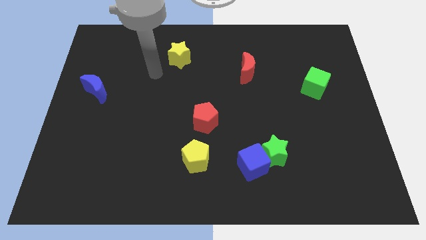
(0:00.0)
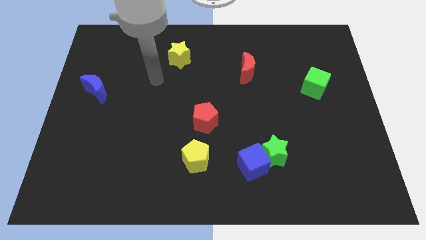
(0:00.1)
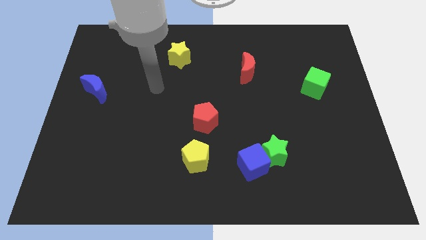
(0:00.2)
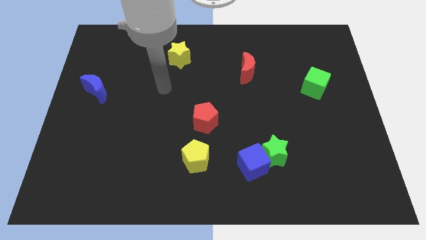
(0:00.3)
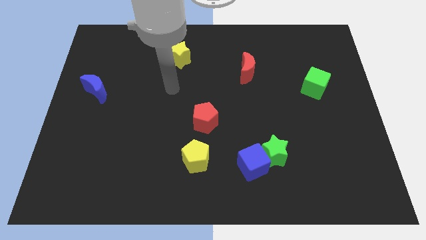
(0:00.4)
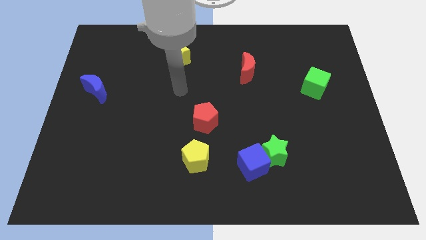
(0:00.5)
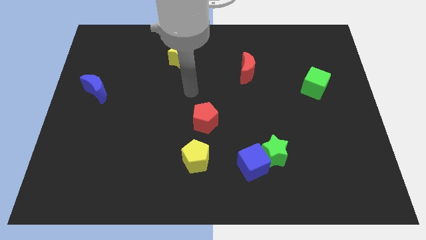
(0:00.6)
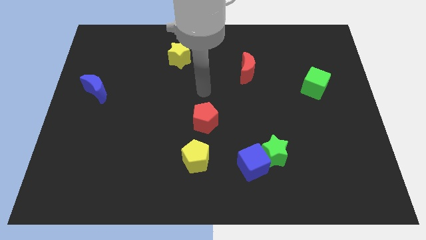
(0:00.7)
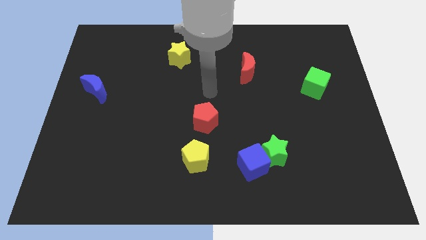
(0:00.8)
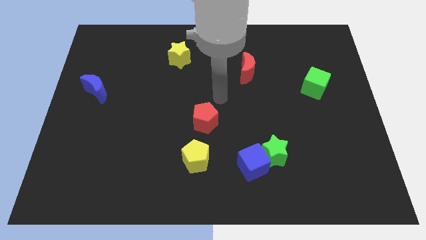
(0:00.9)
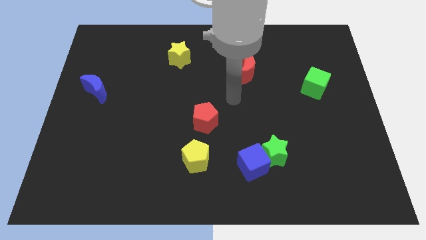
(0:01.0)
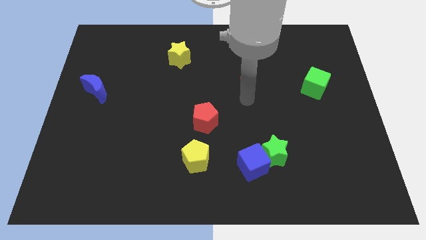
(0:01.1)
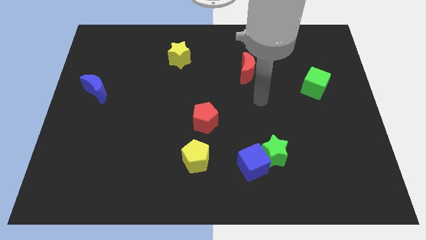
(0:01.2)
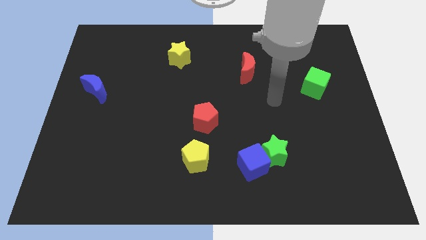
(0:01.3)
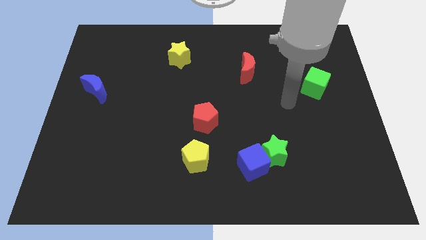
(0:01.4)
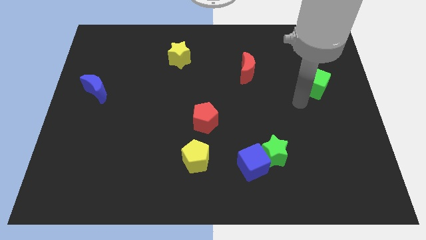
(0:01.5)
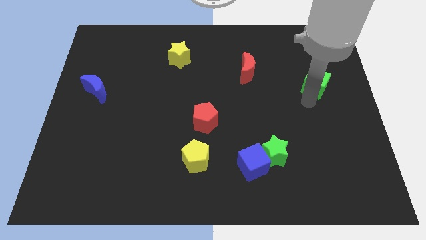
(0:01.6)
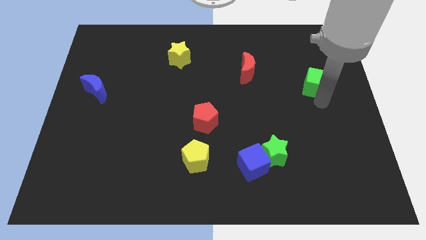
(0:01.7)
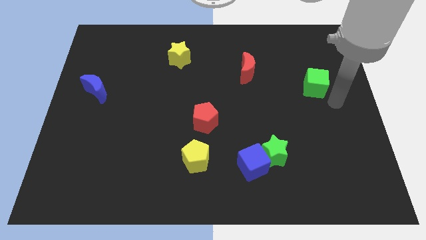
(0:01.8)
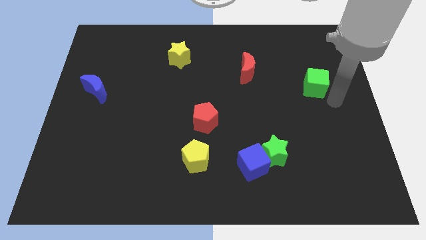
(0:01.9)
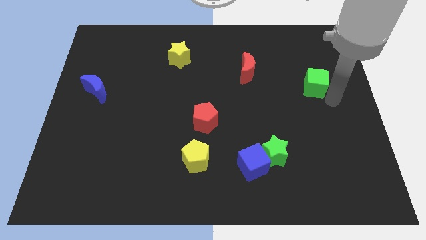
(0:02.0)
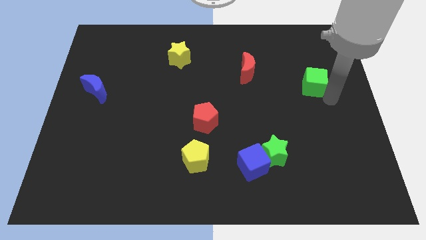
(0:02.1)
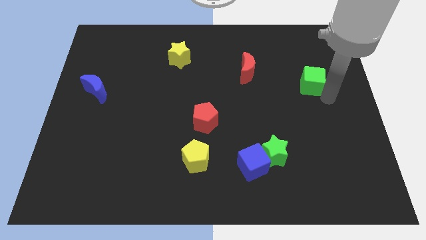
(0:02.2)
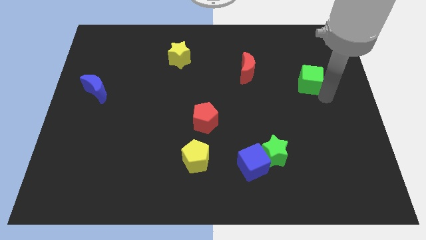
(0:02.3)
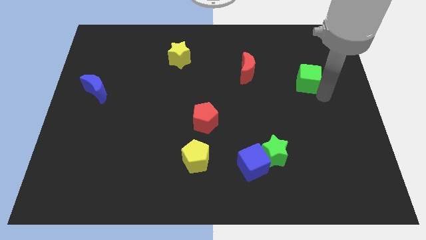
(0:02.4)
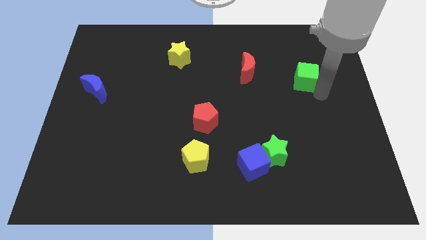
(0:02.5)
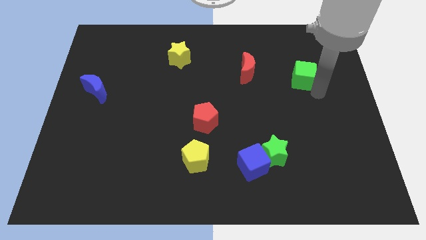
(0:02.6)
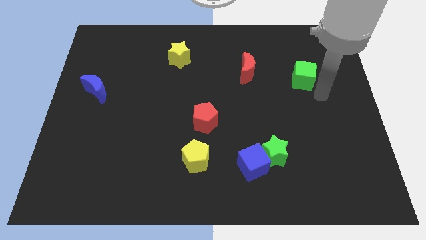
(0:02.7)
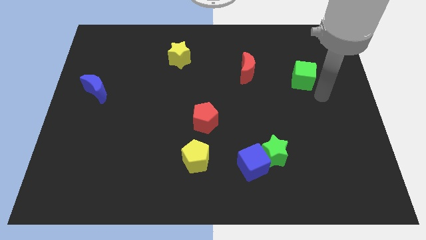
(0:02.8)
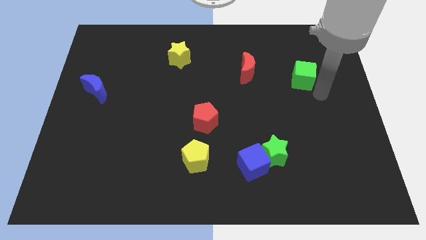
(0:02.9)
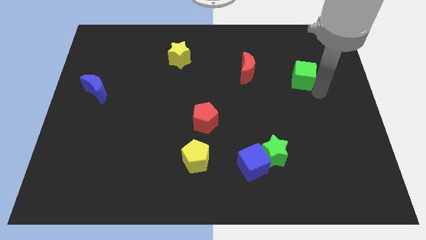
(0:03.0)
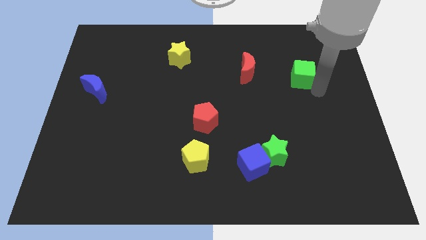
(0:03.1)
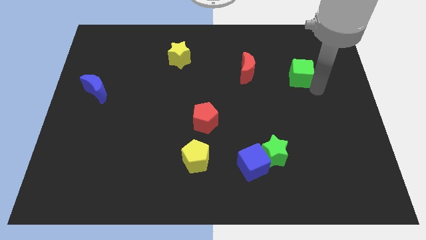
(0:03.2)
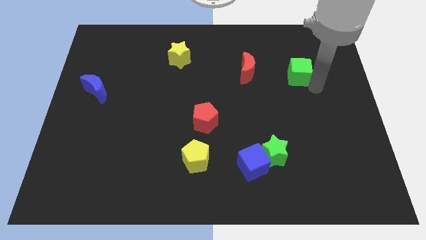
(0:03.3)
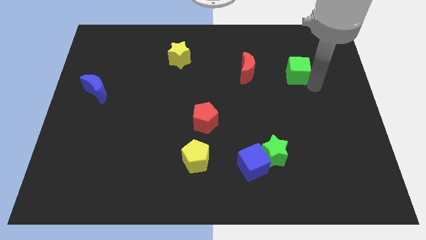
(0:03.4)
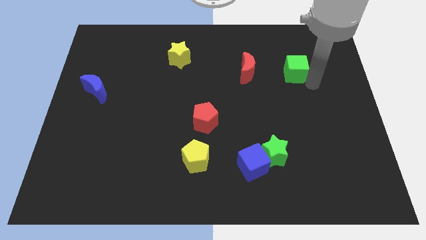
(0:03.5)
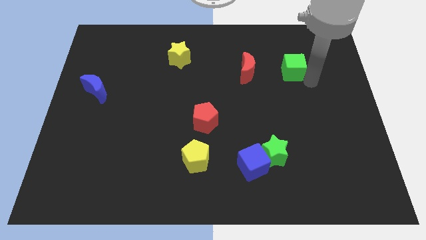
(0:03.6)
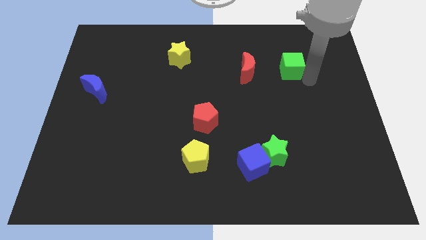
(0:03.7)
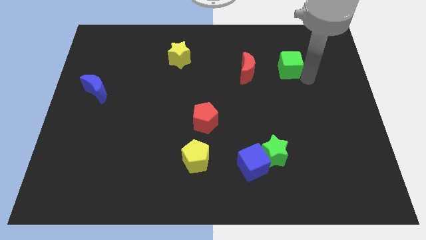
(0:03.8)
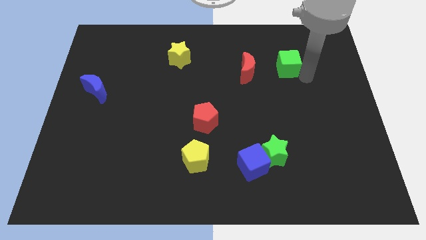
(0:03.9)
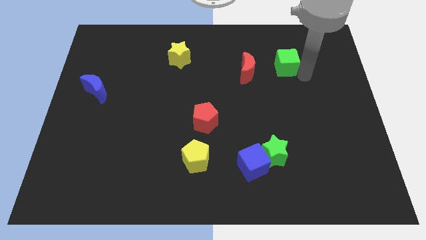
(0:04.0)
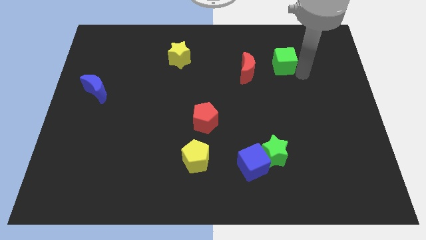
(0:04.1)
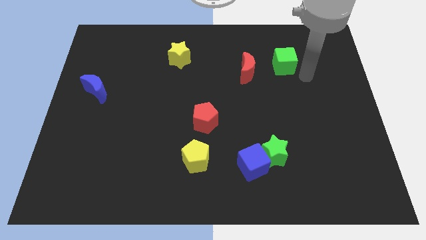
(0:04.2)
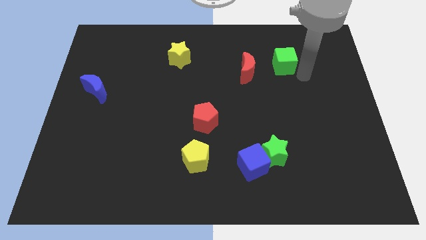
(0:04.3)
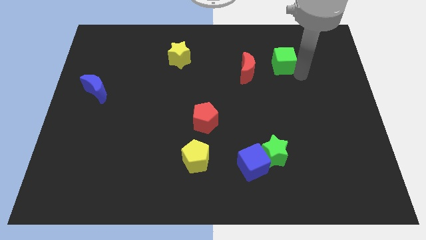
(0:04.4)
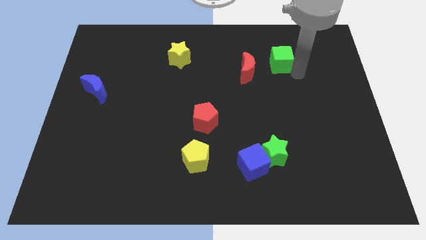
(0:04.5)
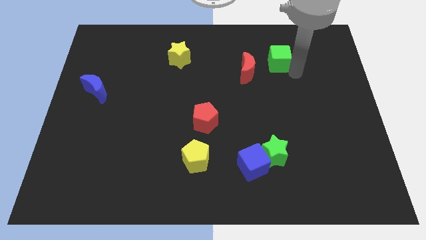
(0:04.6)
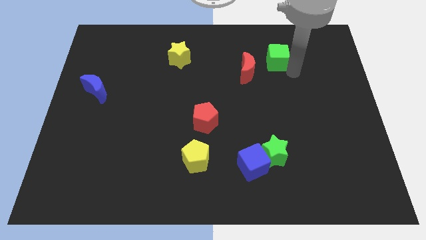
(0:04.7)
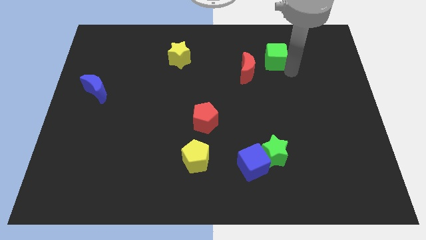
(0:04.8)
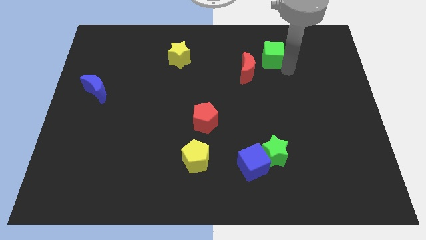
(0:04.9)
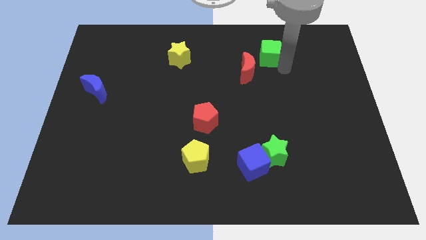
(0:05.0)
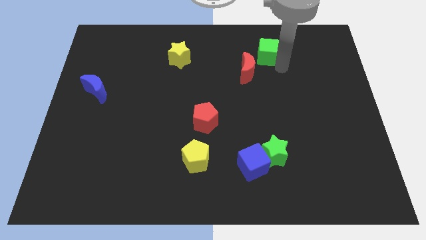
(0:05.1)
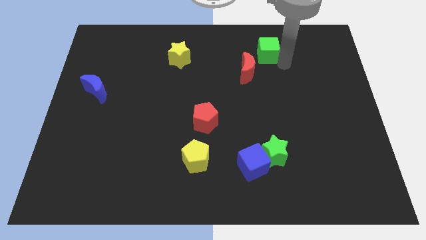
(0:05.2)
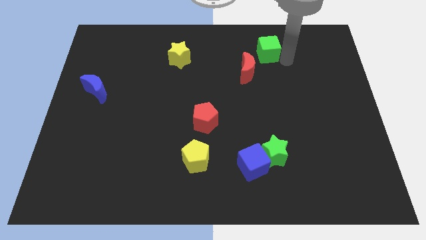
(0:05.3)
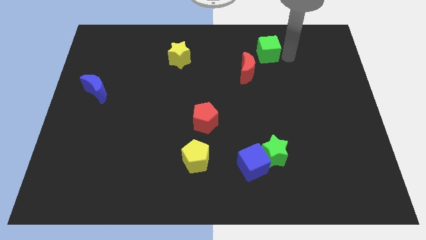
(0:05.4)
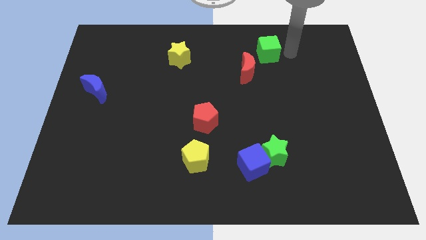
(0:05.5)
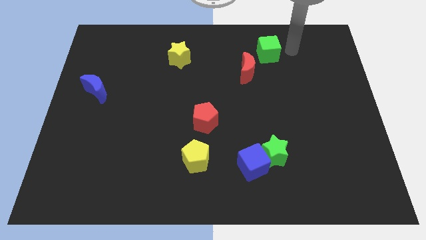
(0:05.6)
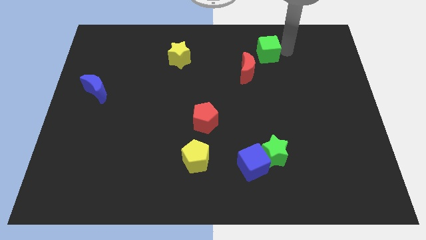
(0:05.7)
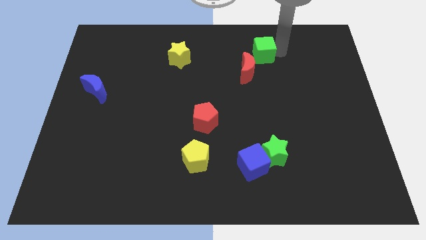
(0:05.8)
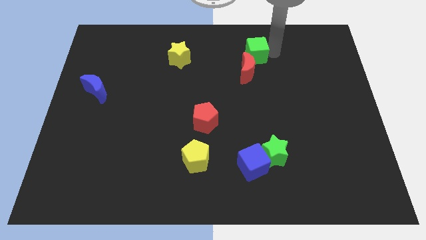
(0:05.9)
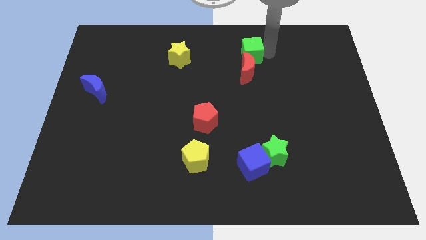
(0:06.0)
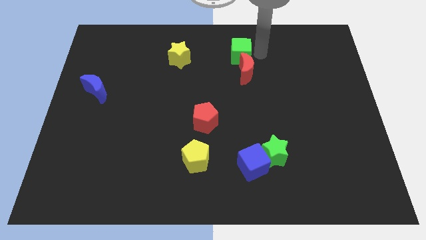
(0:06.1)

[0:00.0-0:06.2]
move the green cube right of the yellow star

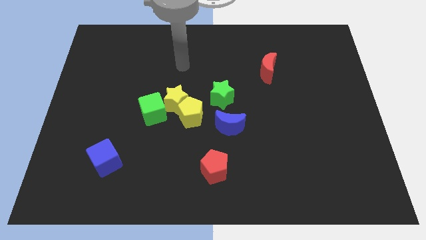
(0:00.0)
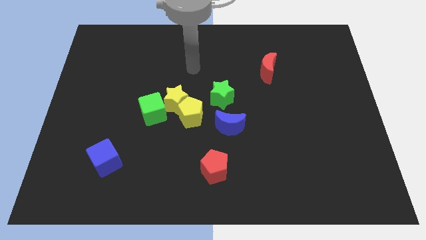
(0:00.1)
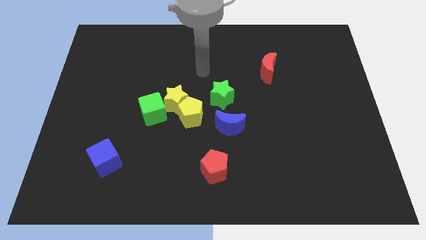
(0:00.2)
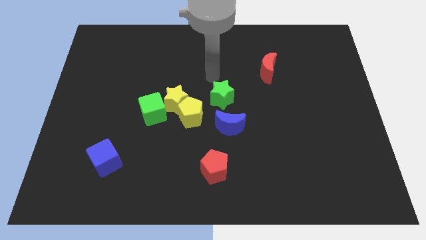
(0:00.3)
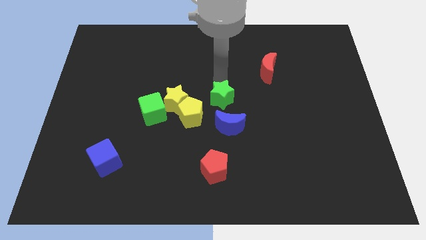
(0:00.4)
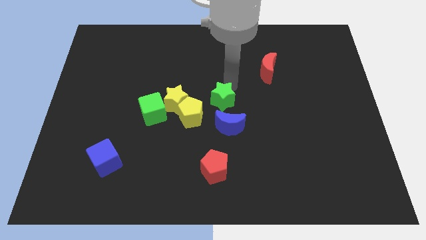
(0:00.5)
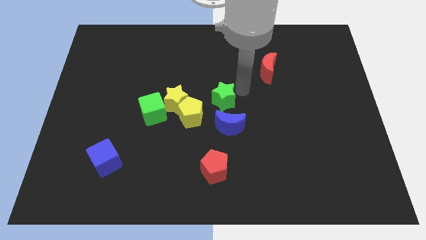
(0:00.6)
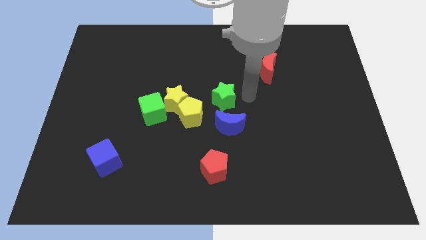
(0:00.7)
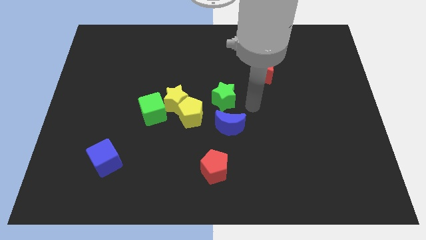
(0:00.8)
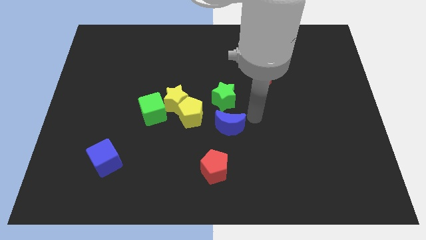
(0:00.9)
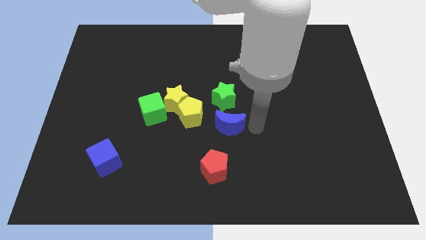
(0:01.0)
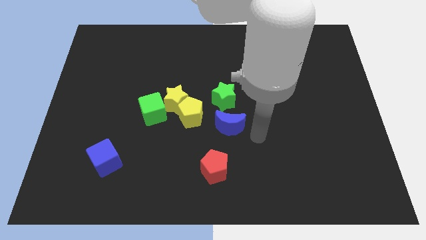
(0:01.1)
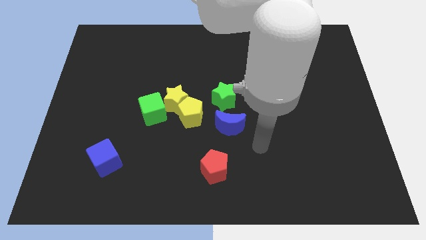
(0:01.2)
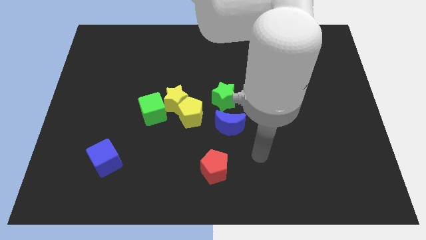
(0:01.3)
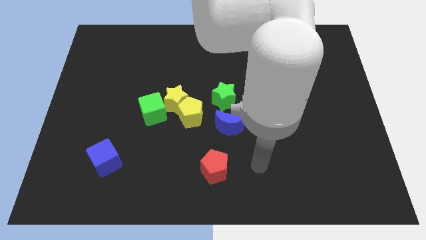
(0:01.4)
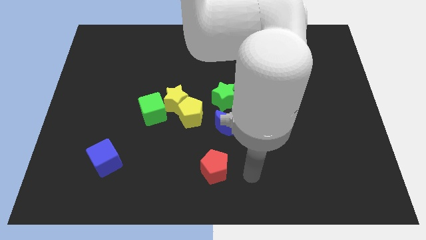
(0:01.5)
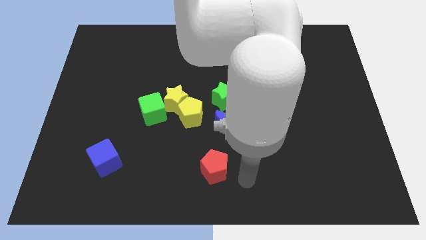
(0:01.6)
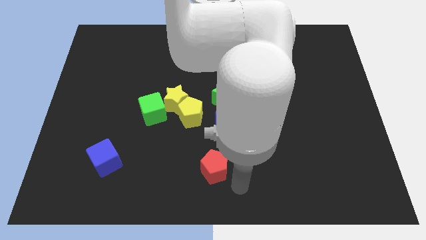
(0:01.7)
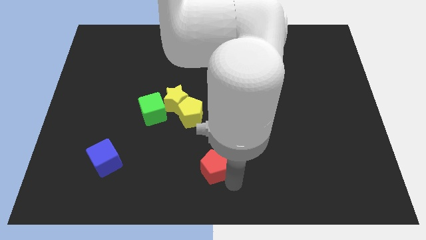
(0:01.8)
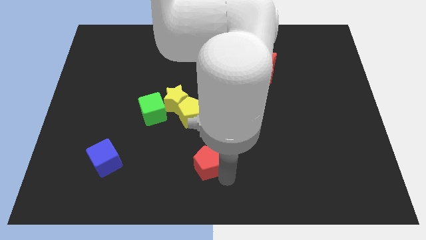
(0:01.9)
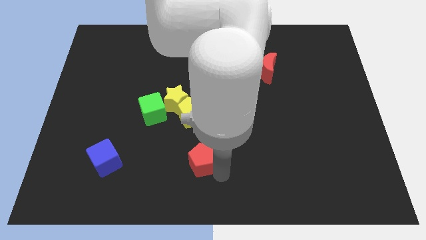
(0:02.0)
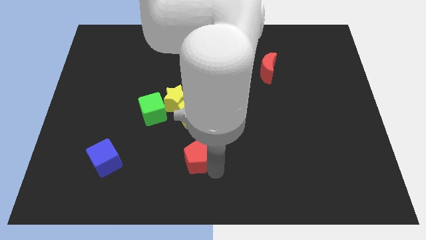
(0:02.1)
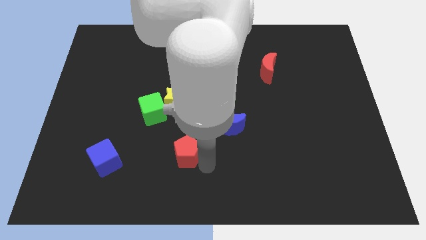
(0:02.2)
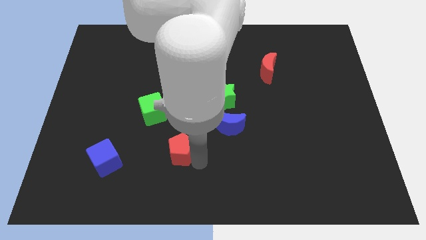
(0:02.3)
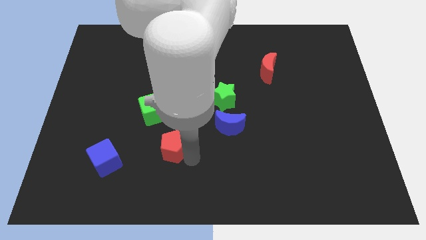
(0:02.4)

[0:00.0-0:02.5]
push the red pentagon to the bottom left of the yellow pentagon
